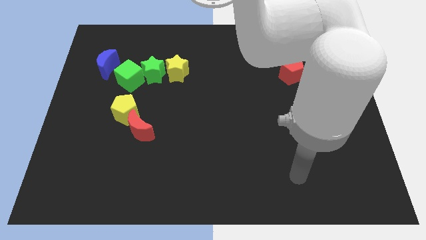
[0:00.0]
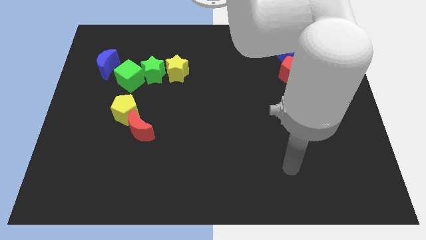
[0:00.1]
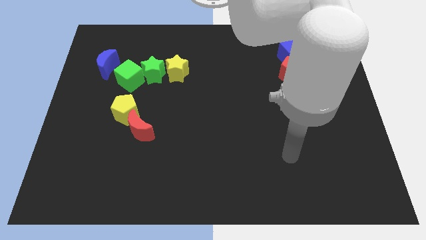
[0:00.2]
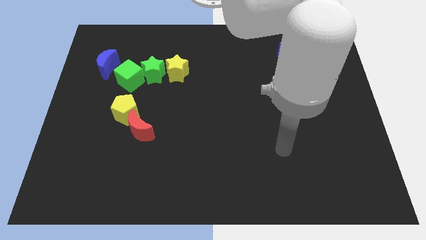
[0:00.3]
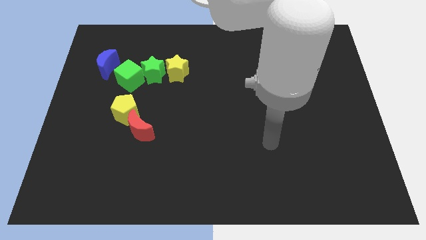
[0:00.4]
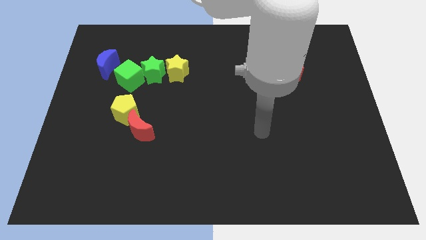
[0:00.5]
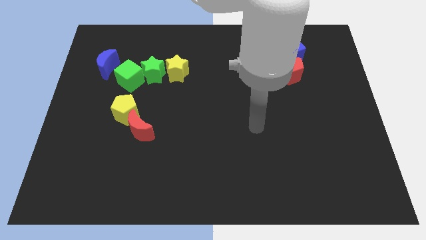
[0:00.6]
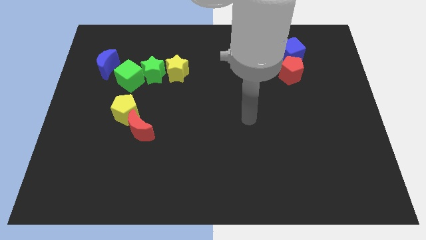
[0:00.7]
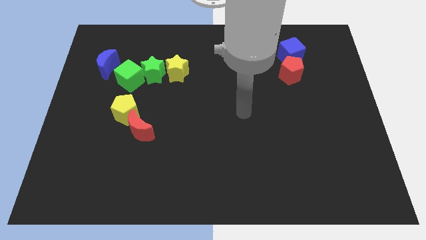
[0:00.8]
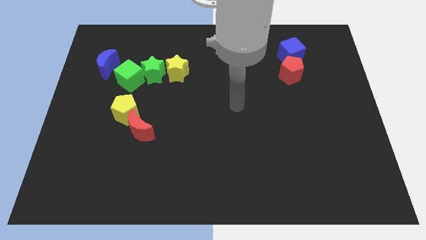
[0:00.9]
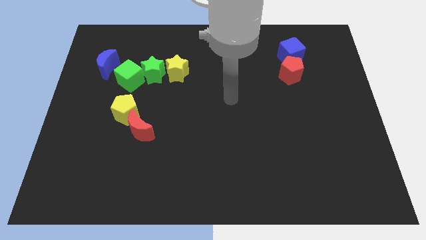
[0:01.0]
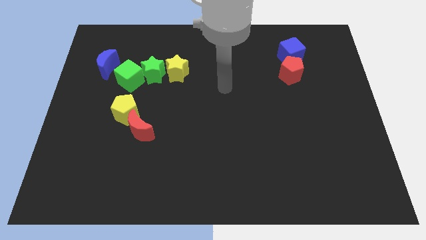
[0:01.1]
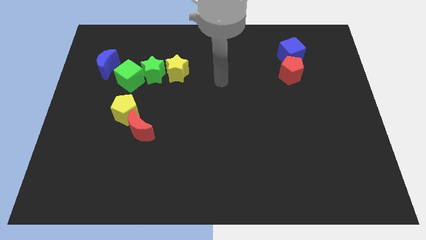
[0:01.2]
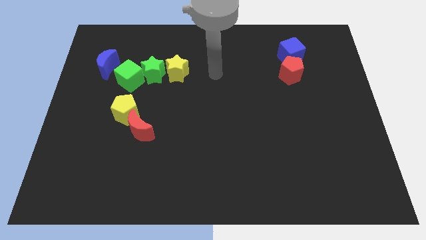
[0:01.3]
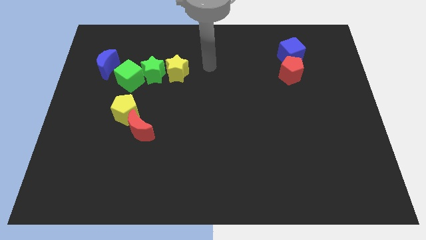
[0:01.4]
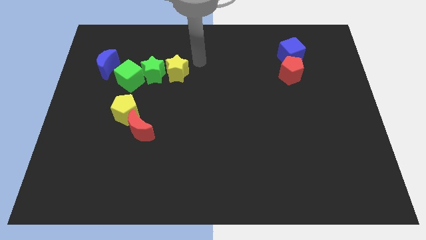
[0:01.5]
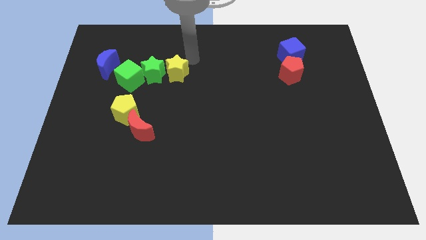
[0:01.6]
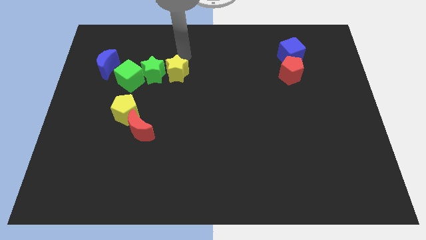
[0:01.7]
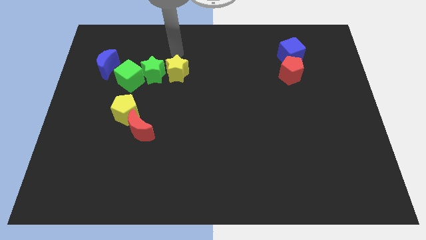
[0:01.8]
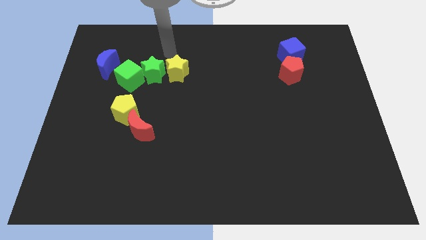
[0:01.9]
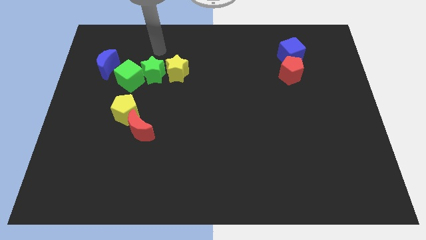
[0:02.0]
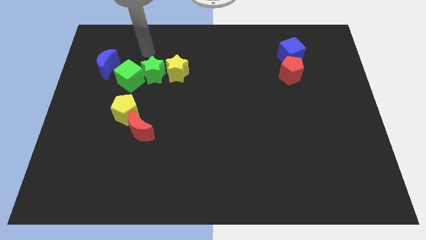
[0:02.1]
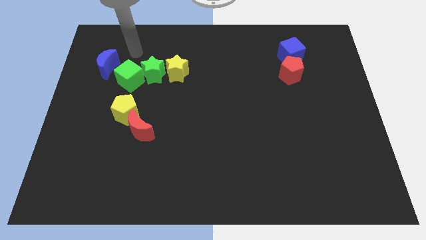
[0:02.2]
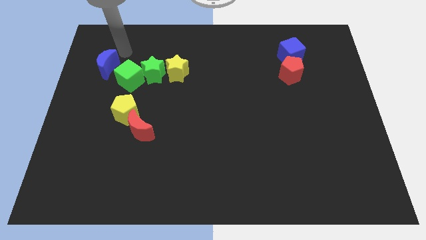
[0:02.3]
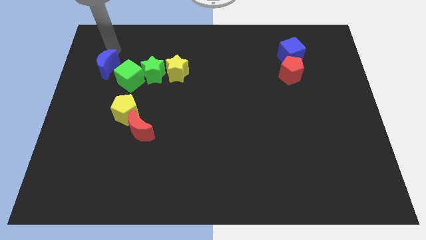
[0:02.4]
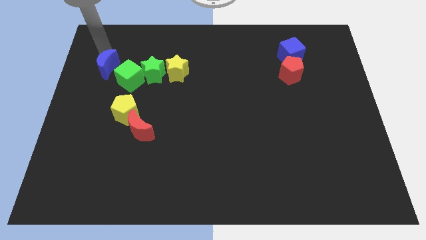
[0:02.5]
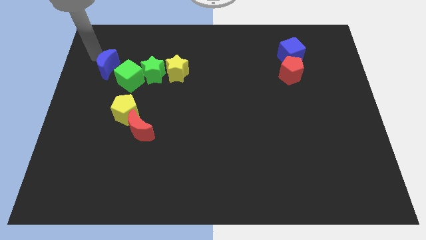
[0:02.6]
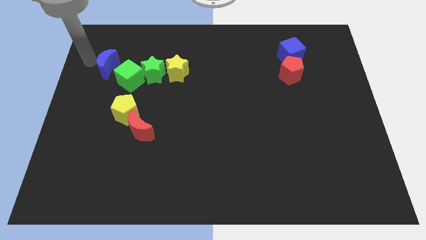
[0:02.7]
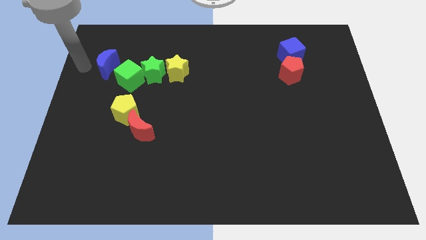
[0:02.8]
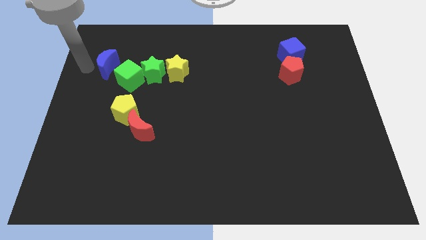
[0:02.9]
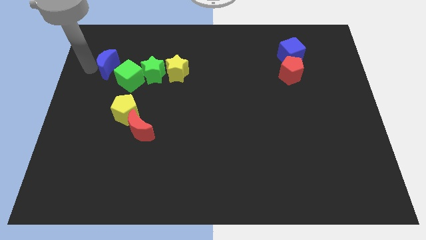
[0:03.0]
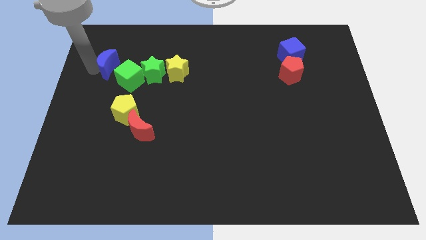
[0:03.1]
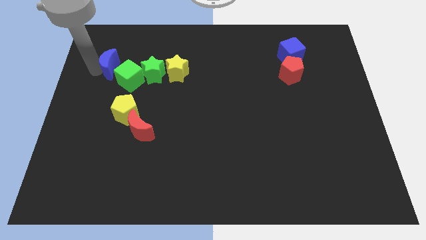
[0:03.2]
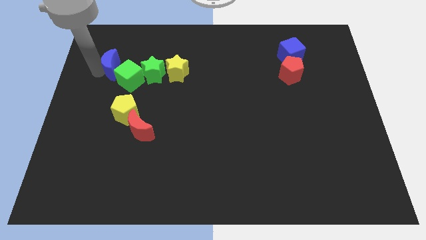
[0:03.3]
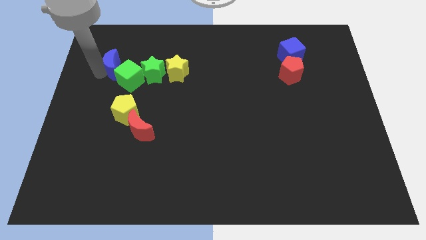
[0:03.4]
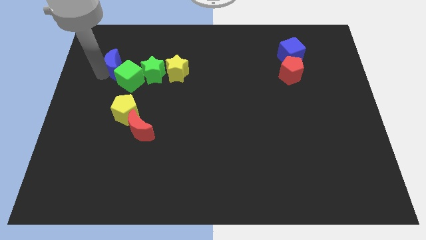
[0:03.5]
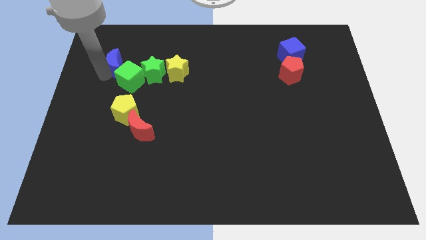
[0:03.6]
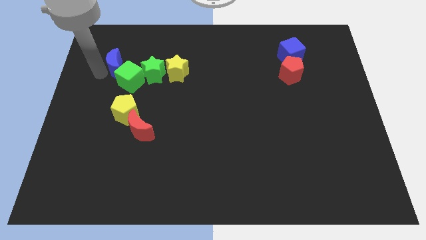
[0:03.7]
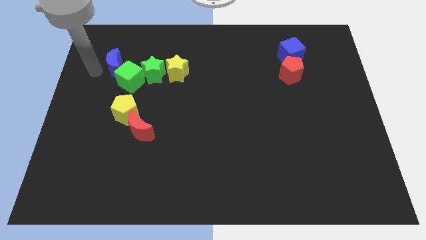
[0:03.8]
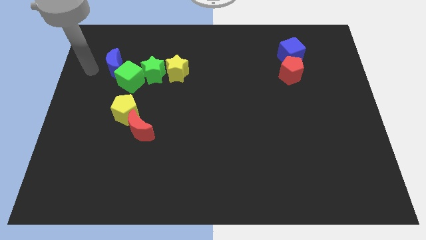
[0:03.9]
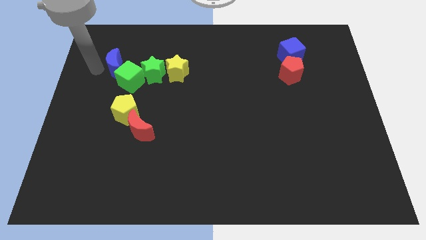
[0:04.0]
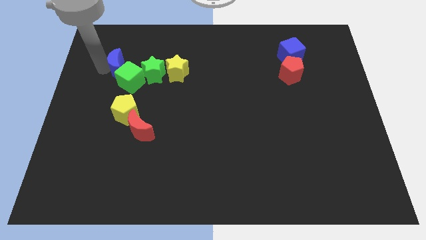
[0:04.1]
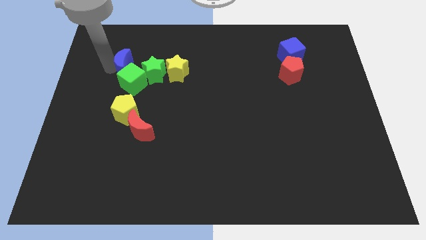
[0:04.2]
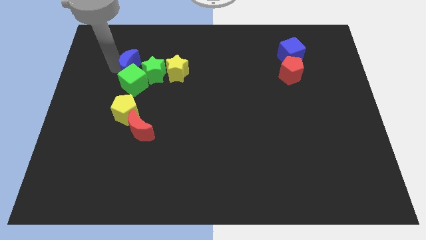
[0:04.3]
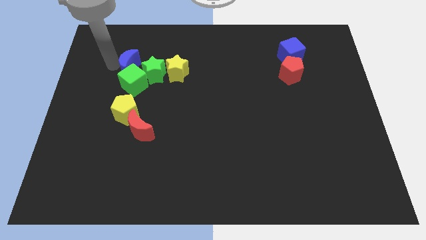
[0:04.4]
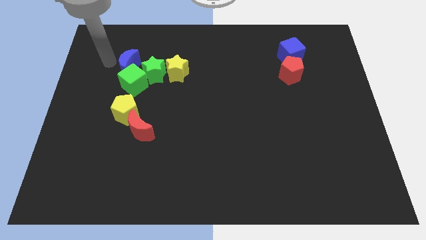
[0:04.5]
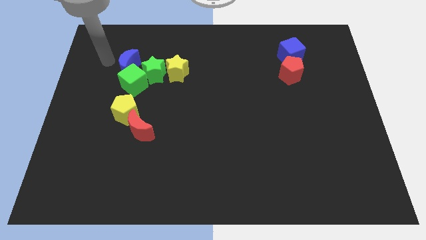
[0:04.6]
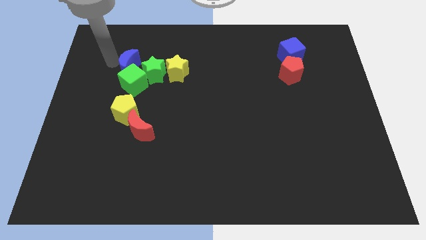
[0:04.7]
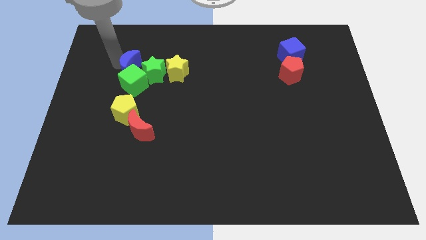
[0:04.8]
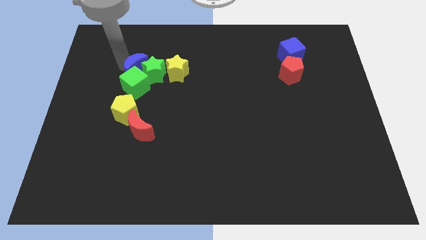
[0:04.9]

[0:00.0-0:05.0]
put the blue moon to the green star

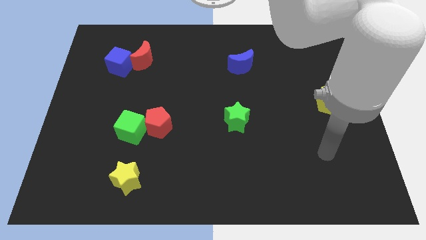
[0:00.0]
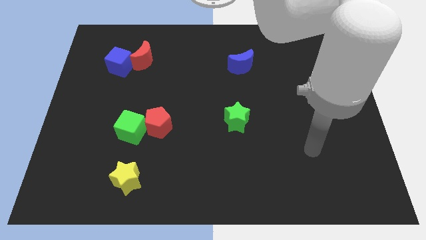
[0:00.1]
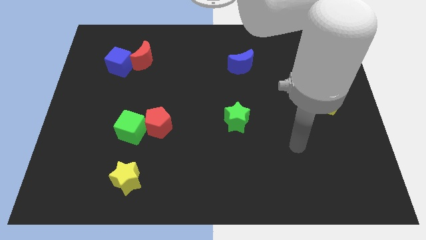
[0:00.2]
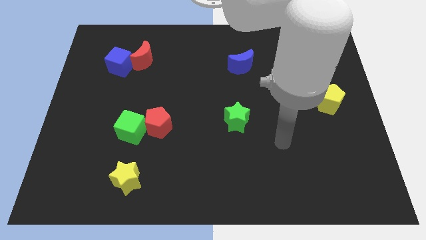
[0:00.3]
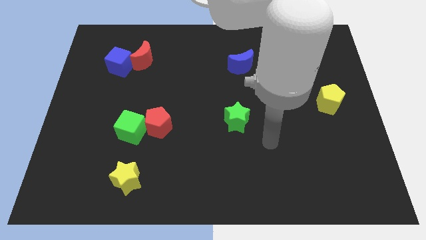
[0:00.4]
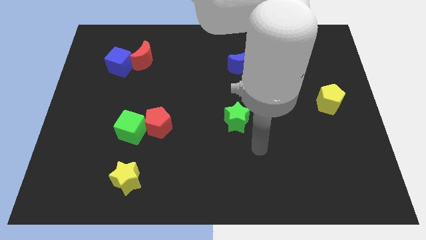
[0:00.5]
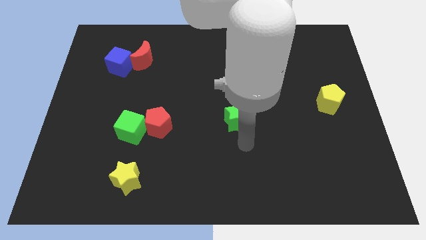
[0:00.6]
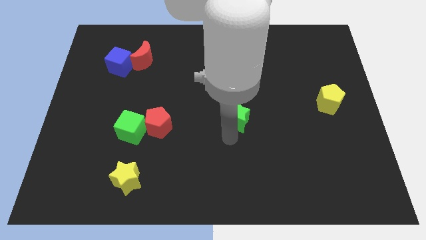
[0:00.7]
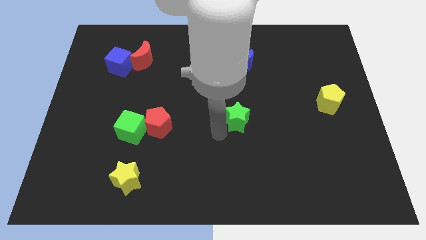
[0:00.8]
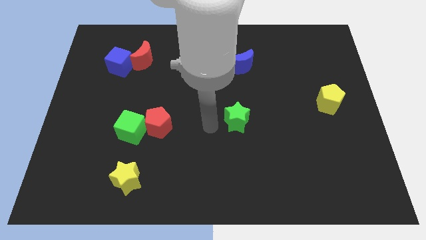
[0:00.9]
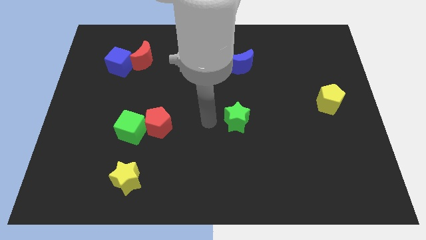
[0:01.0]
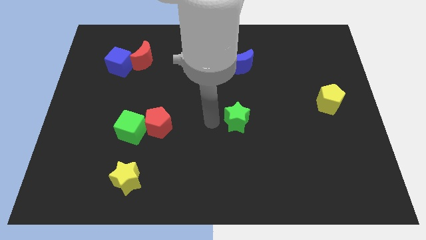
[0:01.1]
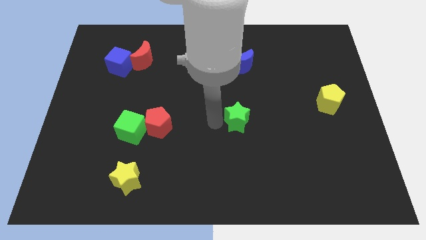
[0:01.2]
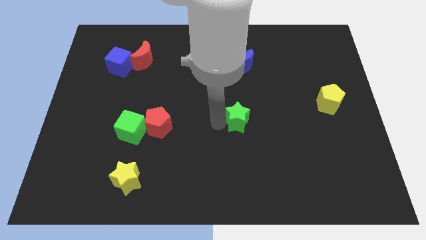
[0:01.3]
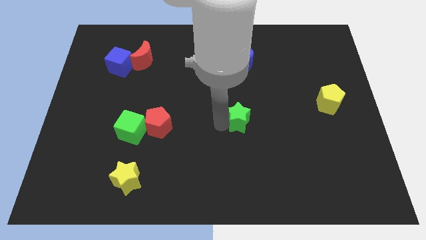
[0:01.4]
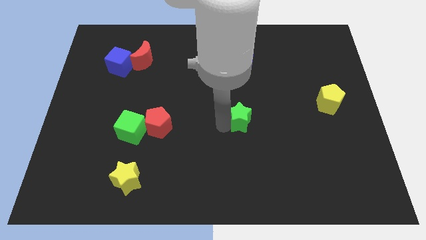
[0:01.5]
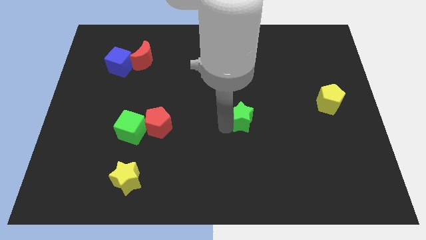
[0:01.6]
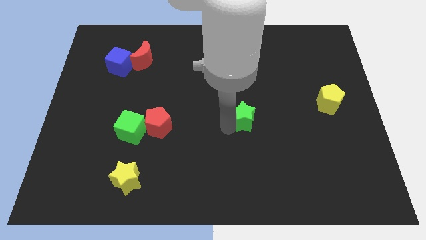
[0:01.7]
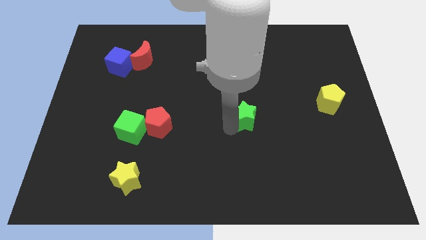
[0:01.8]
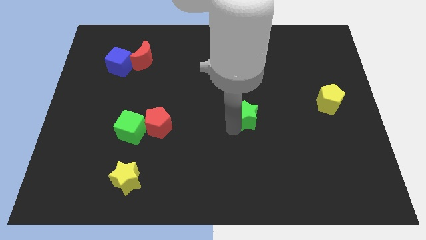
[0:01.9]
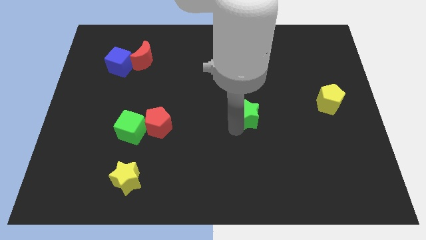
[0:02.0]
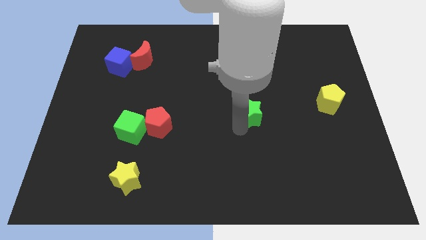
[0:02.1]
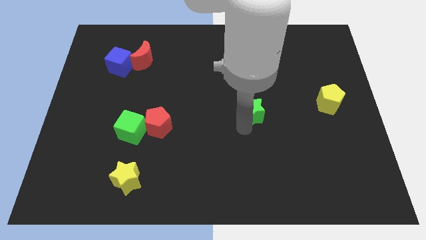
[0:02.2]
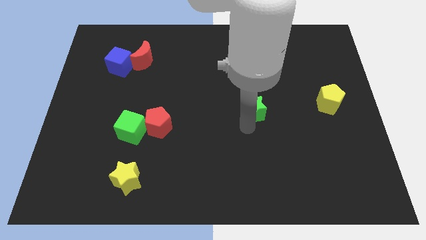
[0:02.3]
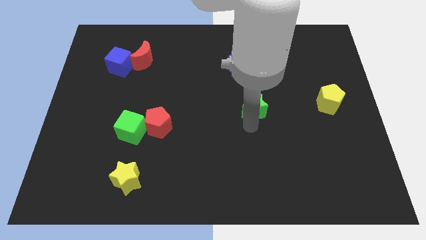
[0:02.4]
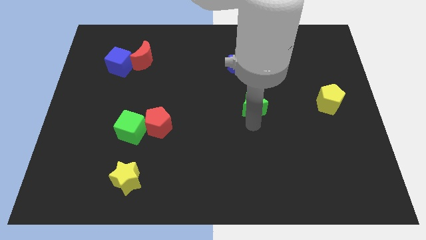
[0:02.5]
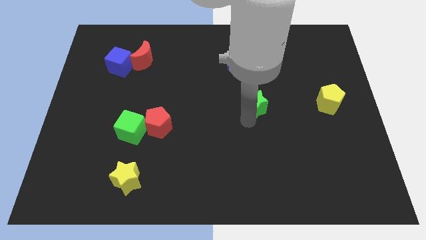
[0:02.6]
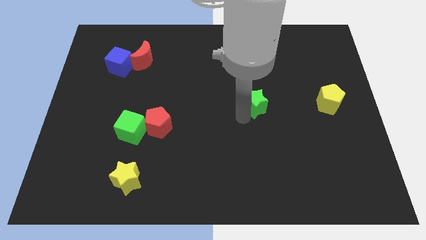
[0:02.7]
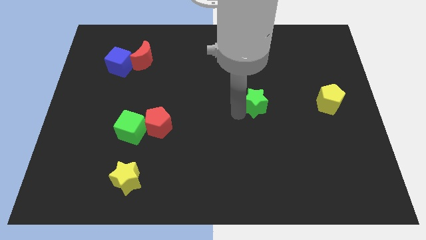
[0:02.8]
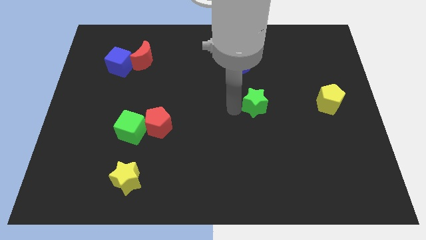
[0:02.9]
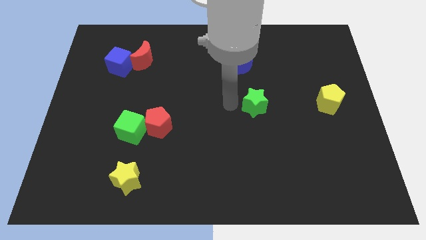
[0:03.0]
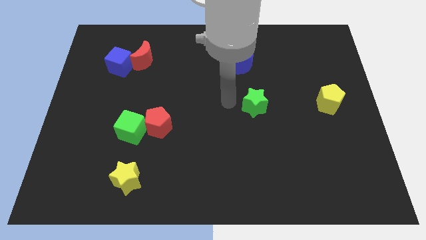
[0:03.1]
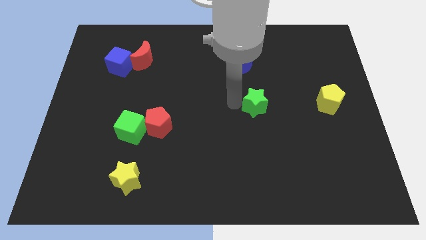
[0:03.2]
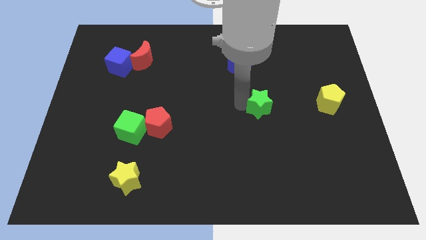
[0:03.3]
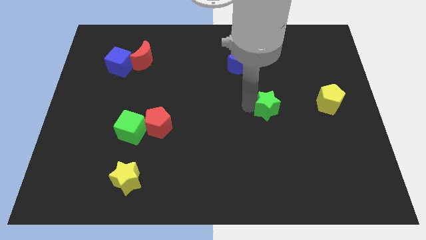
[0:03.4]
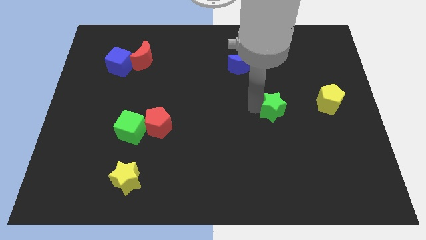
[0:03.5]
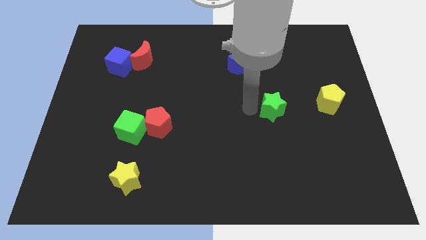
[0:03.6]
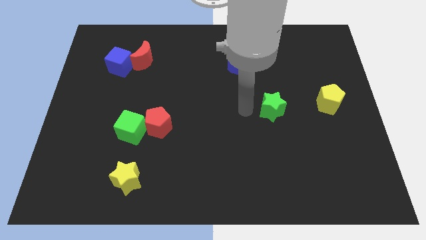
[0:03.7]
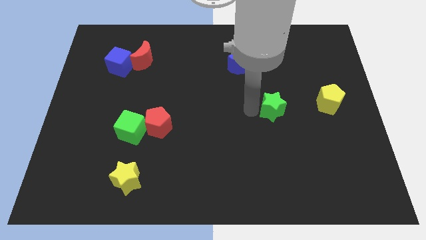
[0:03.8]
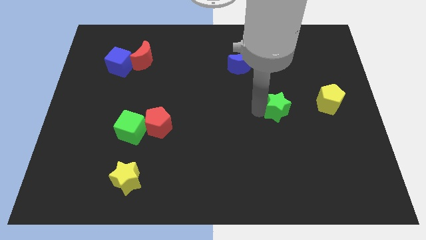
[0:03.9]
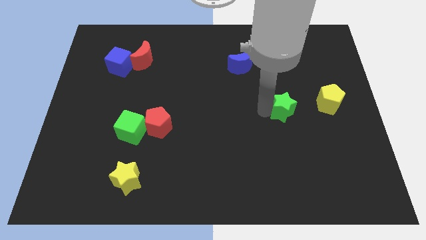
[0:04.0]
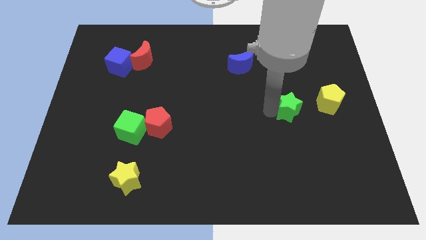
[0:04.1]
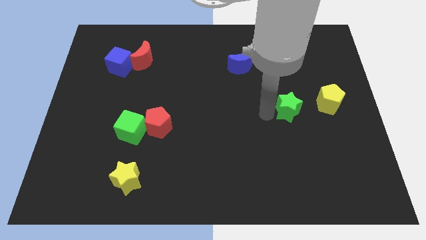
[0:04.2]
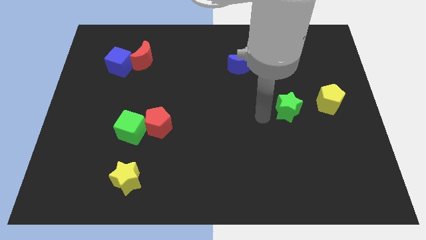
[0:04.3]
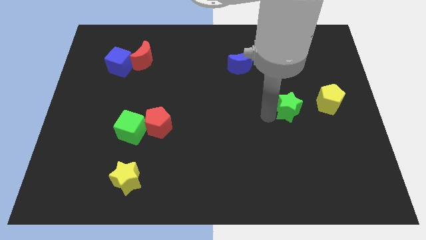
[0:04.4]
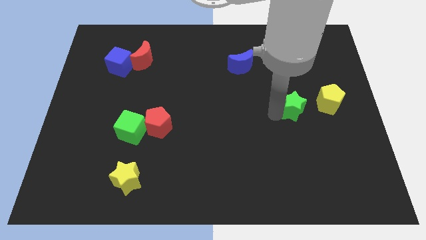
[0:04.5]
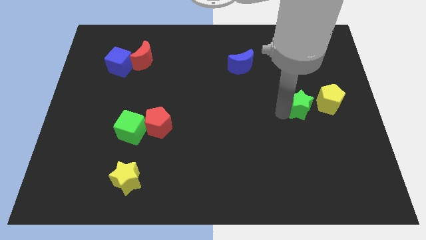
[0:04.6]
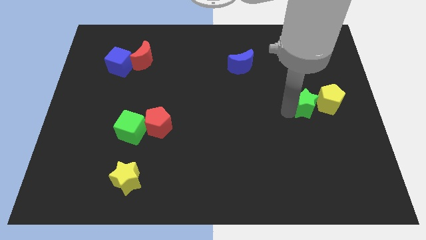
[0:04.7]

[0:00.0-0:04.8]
move the green star to the yellow pentagon
